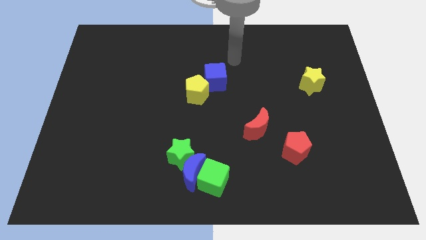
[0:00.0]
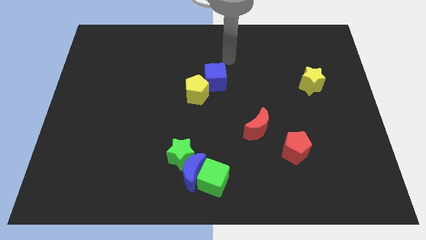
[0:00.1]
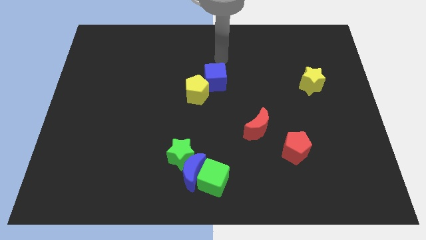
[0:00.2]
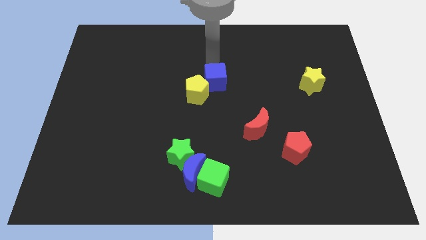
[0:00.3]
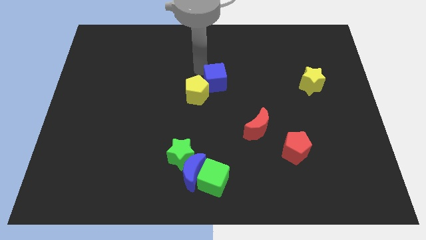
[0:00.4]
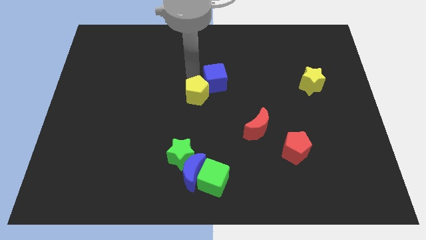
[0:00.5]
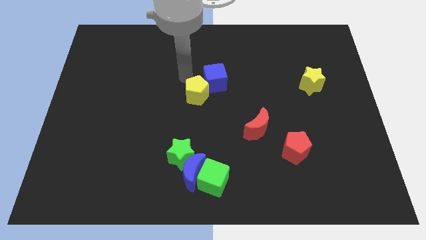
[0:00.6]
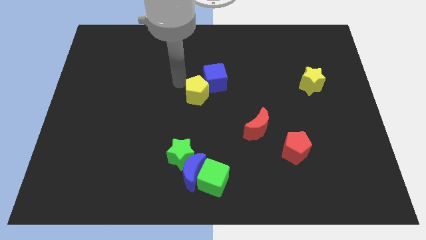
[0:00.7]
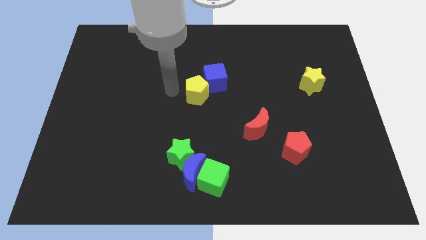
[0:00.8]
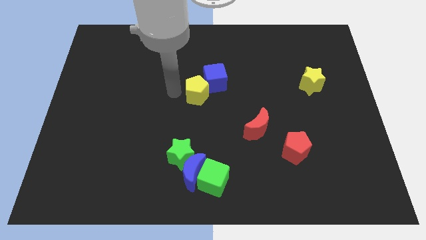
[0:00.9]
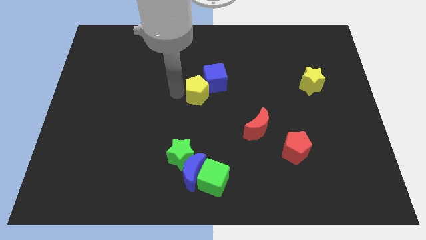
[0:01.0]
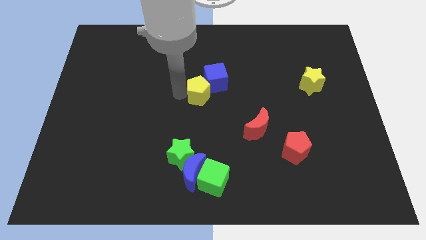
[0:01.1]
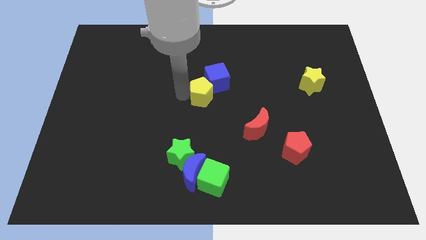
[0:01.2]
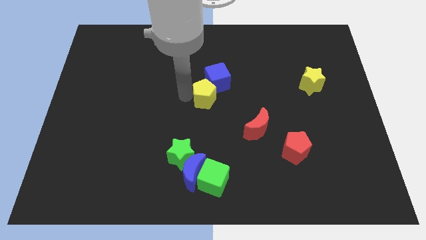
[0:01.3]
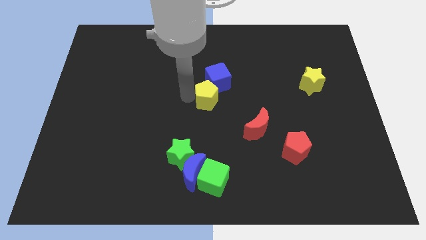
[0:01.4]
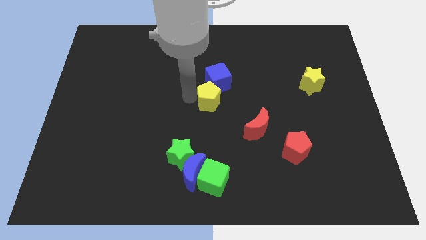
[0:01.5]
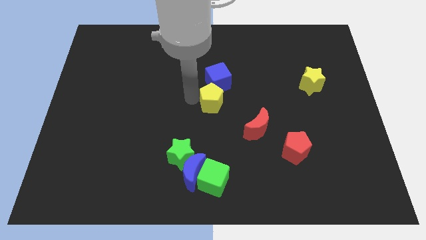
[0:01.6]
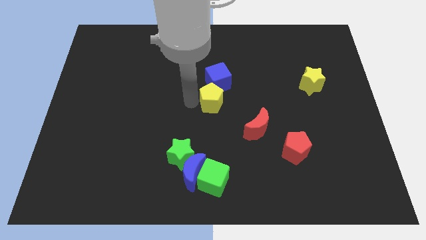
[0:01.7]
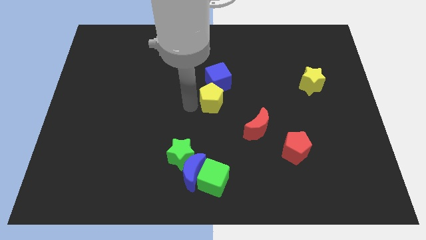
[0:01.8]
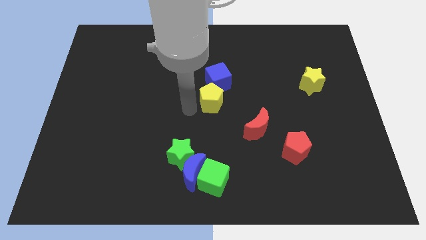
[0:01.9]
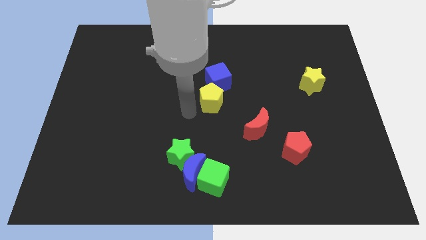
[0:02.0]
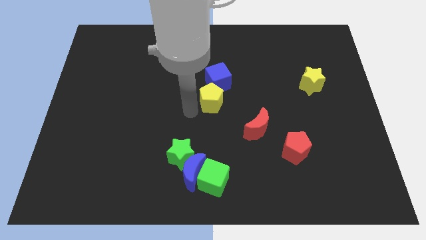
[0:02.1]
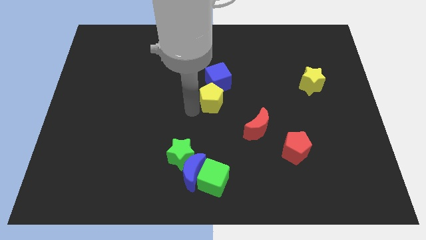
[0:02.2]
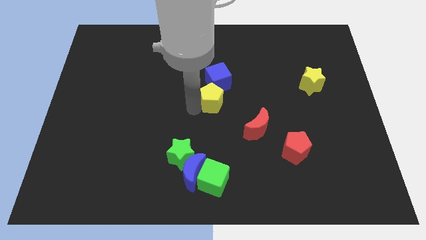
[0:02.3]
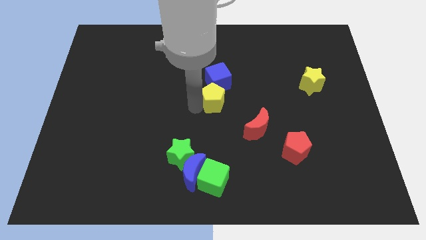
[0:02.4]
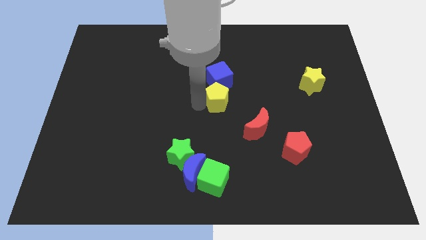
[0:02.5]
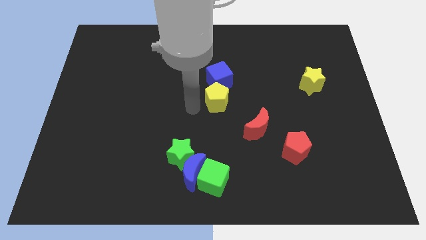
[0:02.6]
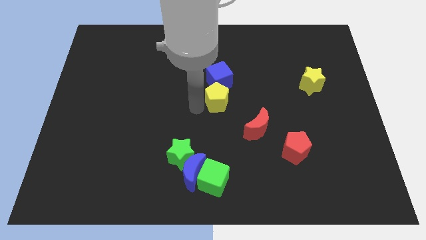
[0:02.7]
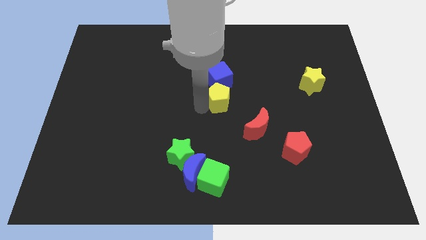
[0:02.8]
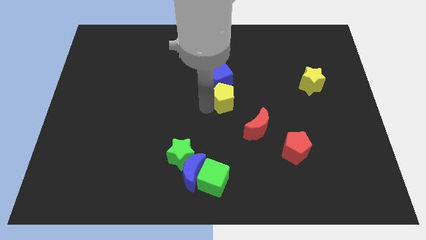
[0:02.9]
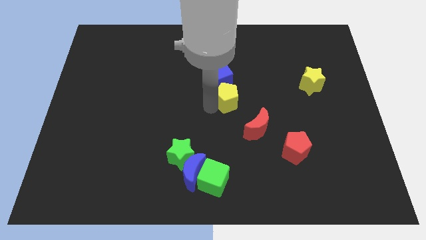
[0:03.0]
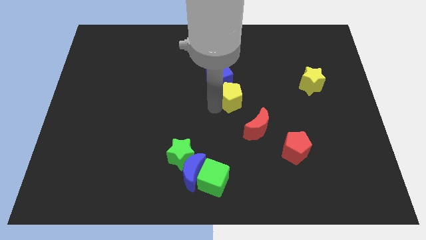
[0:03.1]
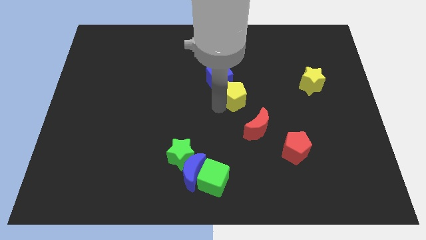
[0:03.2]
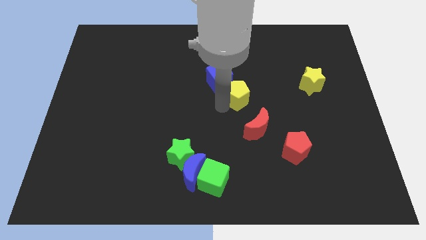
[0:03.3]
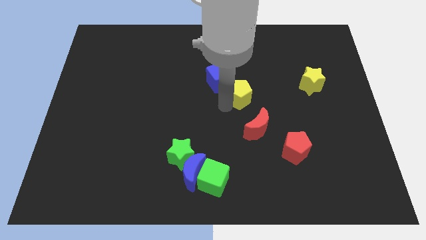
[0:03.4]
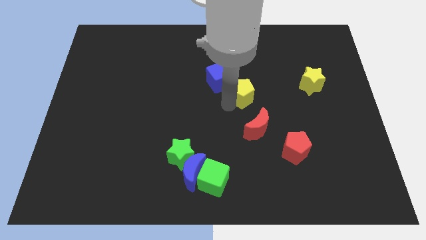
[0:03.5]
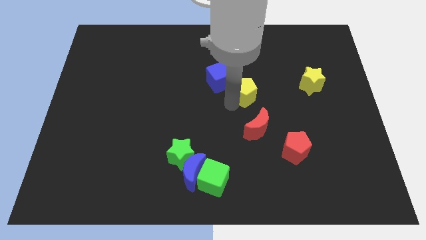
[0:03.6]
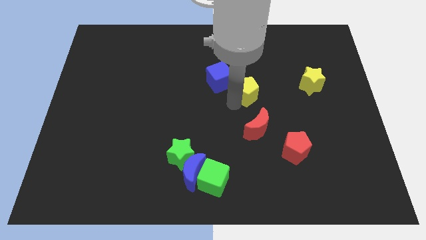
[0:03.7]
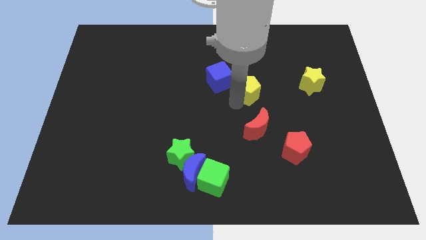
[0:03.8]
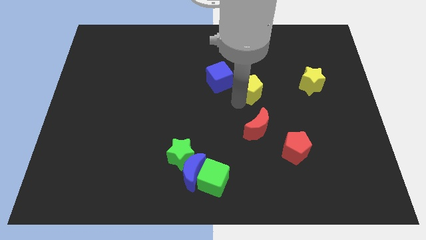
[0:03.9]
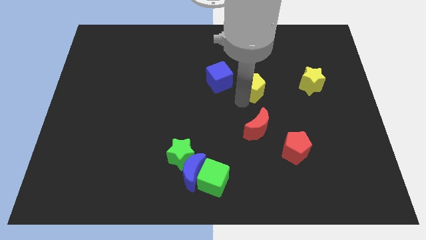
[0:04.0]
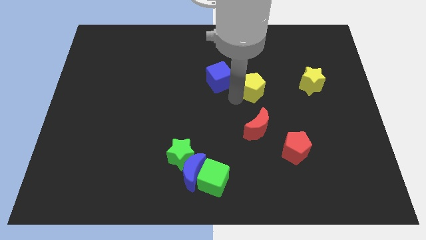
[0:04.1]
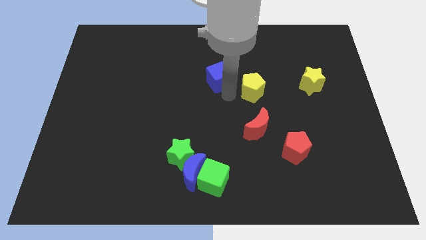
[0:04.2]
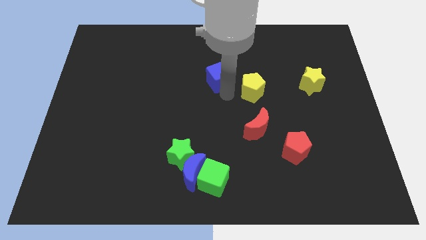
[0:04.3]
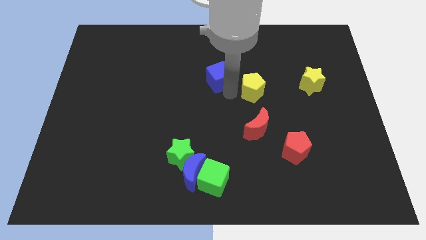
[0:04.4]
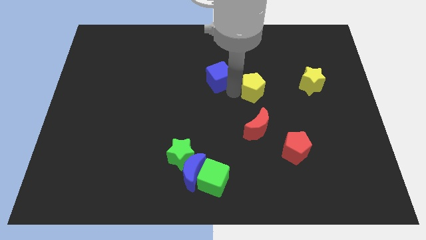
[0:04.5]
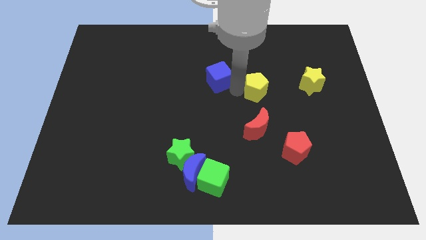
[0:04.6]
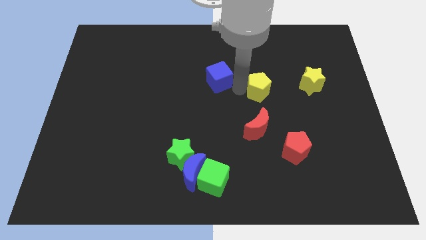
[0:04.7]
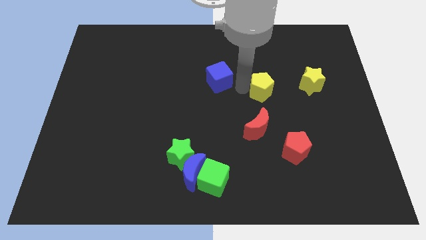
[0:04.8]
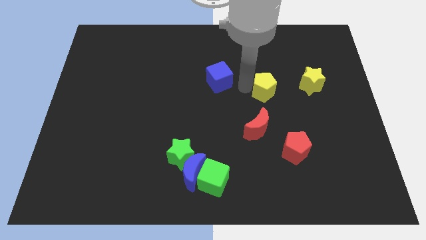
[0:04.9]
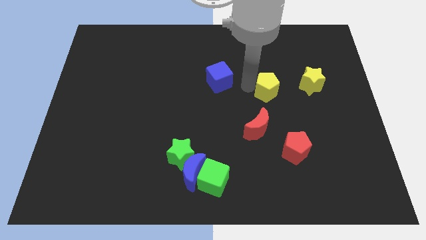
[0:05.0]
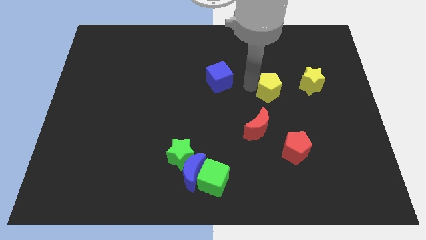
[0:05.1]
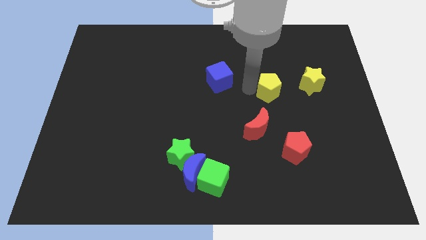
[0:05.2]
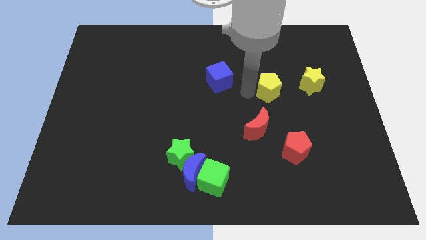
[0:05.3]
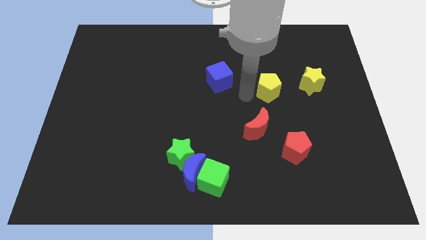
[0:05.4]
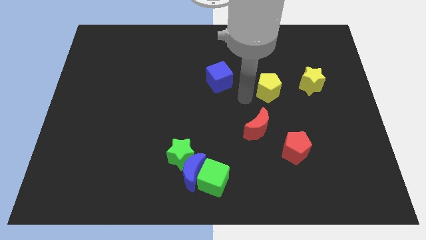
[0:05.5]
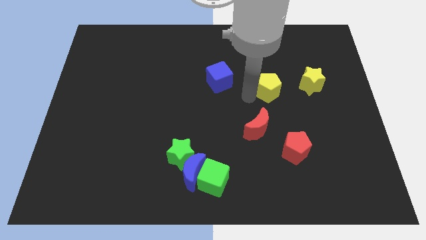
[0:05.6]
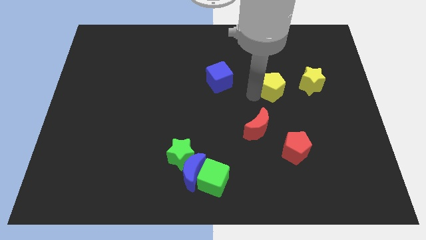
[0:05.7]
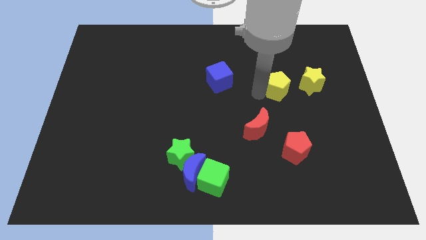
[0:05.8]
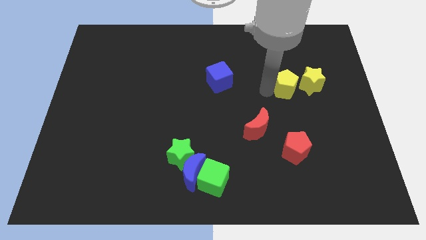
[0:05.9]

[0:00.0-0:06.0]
put the yellow pentagon to the yellow star

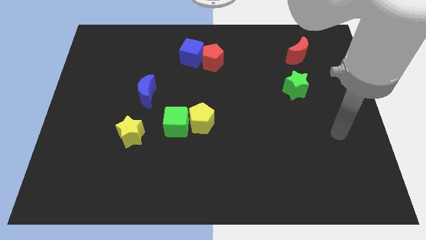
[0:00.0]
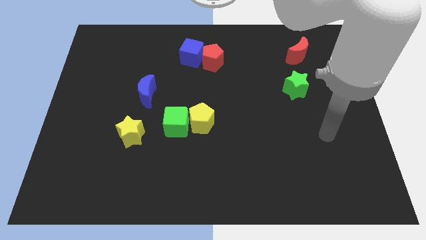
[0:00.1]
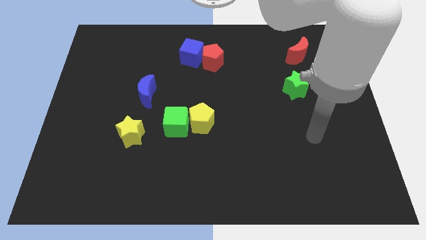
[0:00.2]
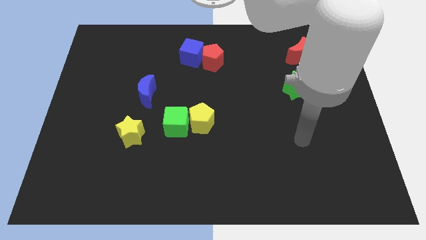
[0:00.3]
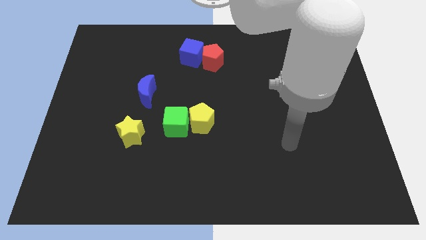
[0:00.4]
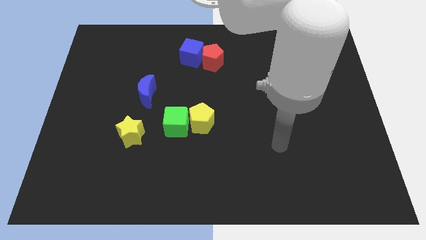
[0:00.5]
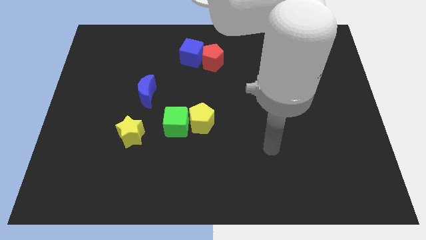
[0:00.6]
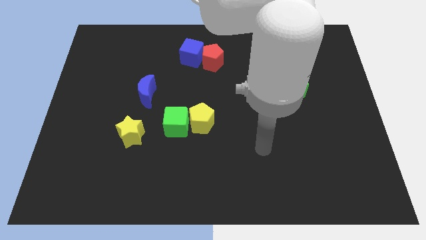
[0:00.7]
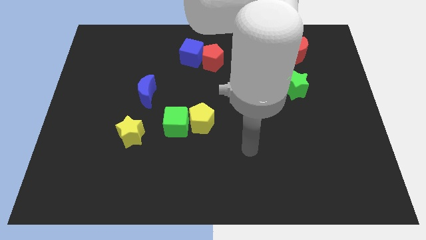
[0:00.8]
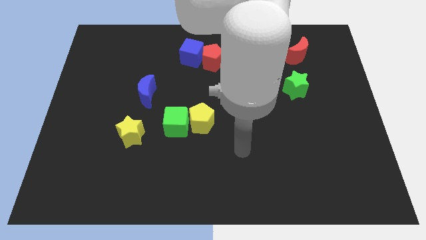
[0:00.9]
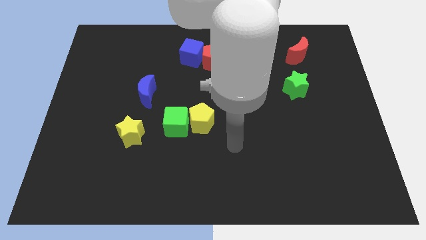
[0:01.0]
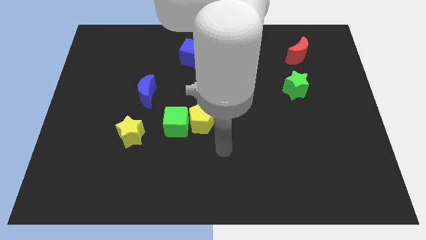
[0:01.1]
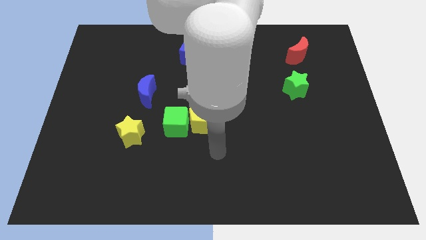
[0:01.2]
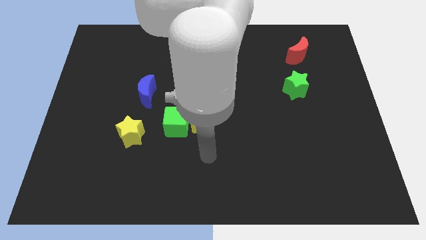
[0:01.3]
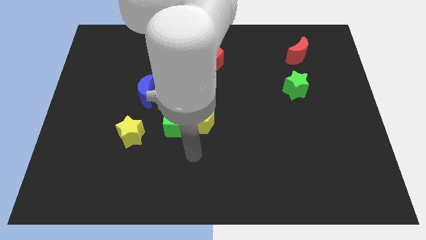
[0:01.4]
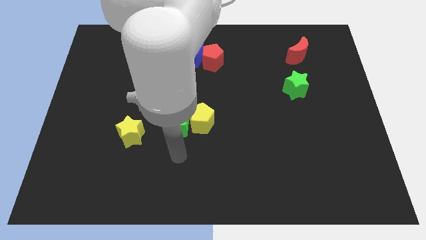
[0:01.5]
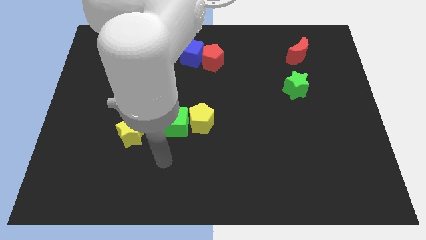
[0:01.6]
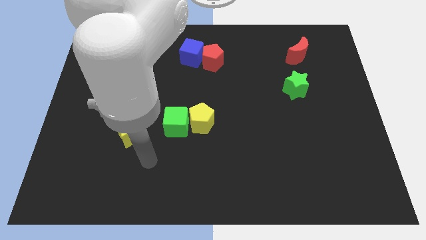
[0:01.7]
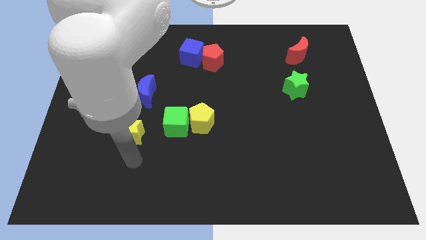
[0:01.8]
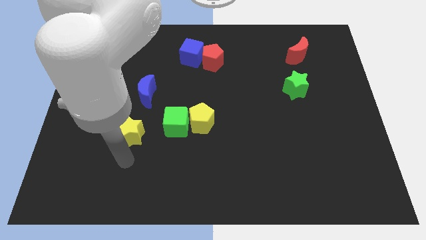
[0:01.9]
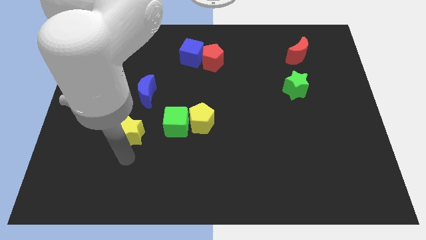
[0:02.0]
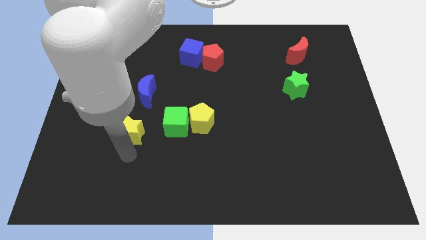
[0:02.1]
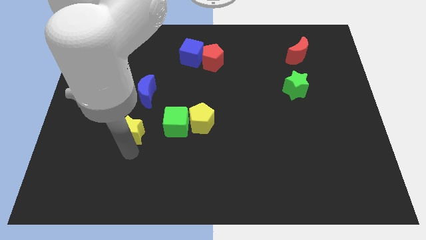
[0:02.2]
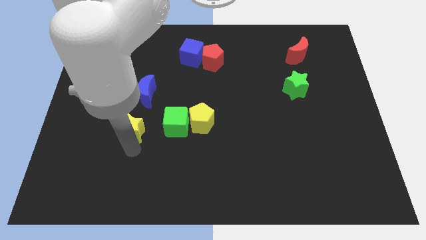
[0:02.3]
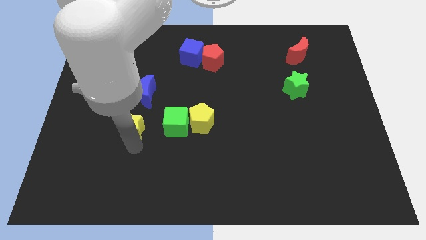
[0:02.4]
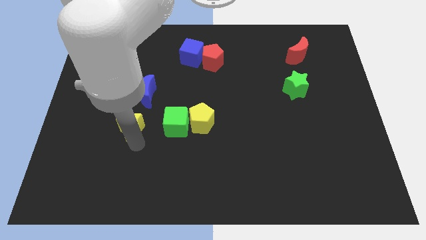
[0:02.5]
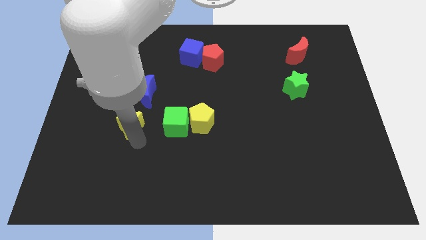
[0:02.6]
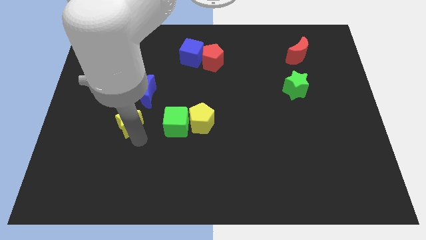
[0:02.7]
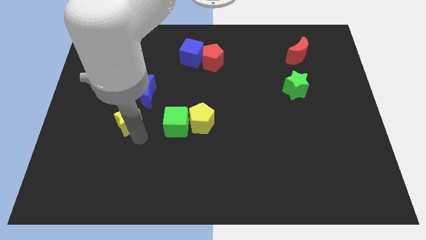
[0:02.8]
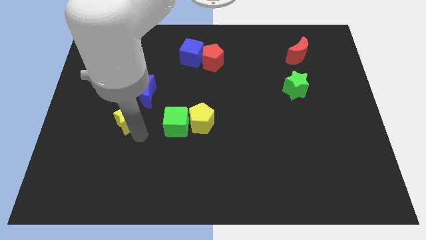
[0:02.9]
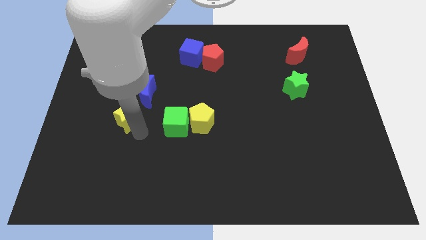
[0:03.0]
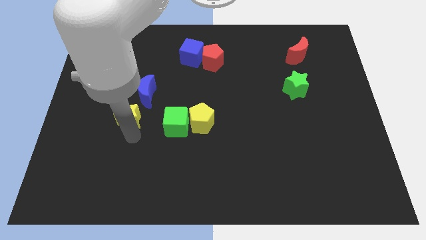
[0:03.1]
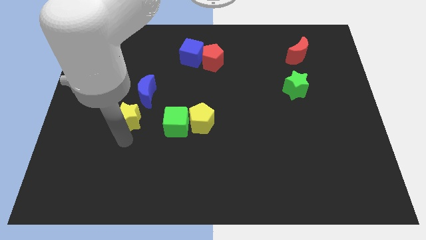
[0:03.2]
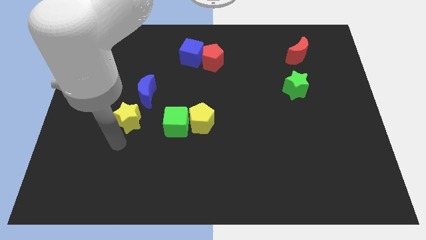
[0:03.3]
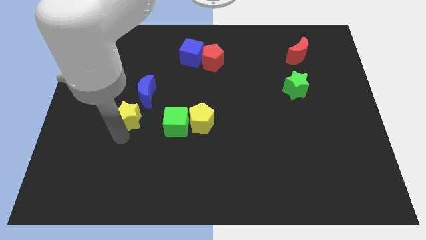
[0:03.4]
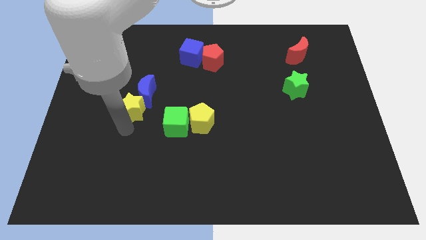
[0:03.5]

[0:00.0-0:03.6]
push the yellow star close to the blue moon
